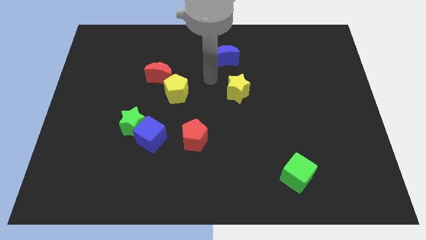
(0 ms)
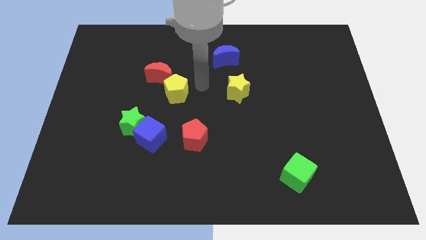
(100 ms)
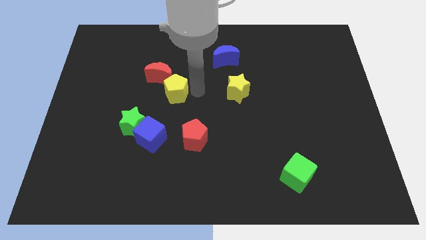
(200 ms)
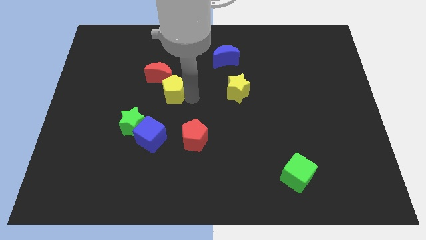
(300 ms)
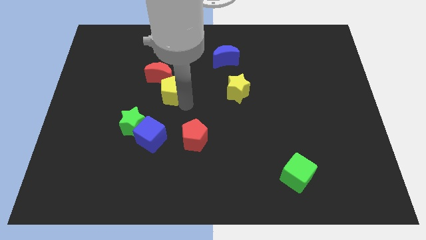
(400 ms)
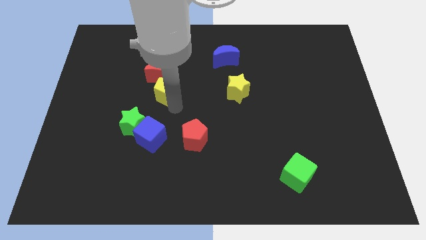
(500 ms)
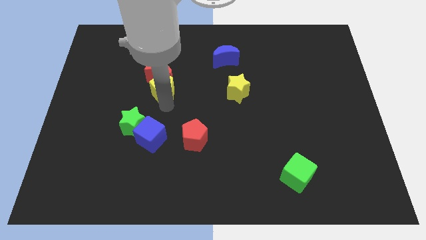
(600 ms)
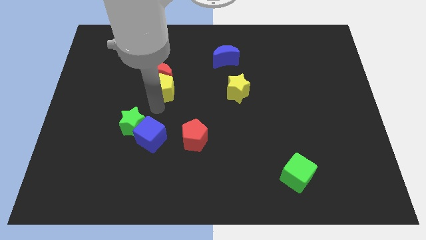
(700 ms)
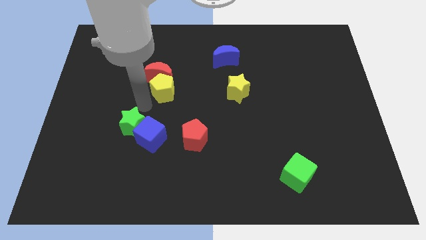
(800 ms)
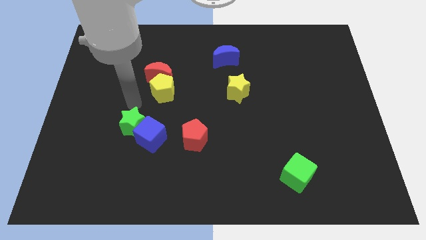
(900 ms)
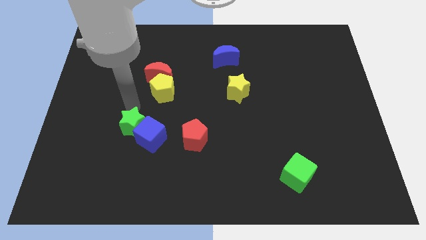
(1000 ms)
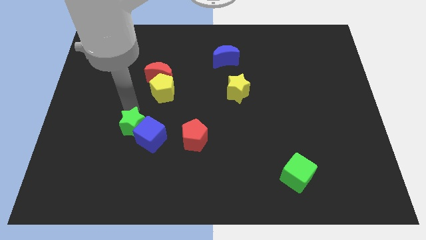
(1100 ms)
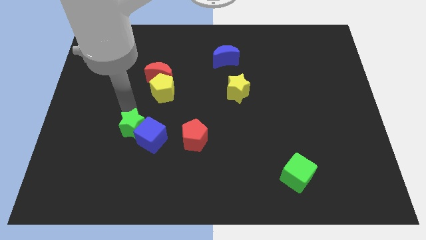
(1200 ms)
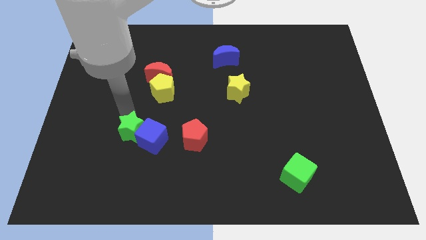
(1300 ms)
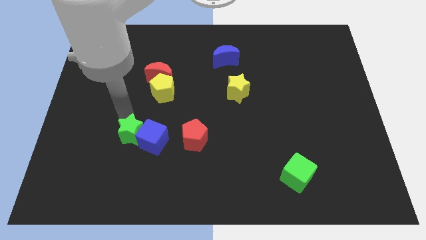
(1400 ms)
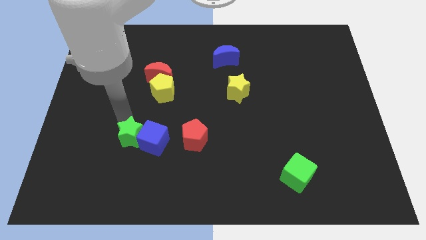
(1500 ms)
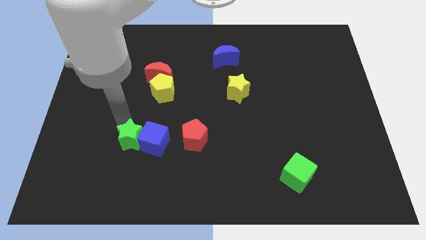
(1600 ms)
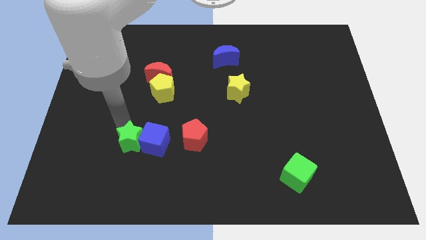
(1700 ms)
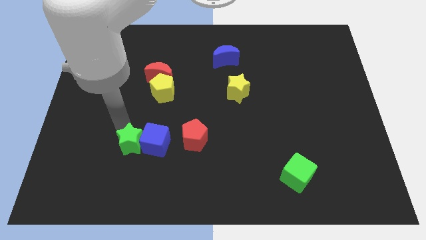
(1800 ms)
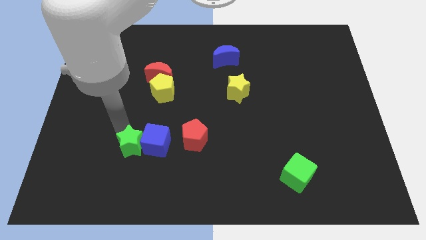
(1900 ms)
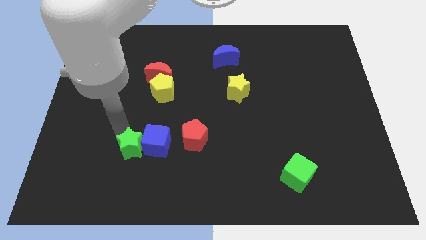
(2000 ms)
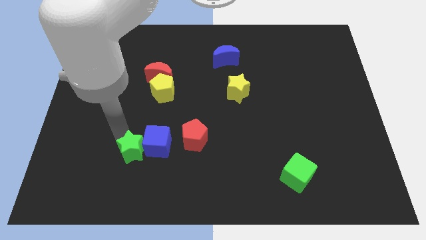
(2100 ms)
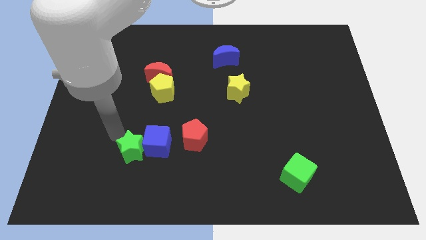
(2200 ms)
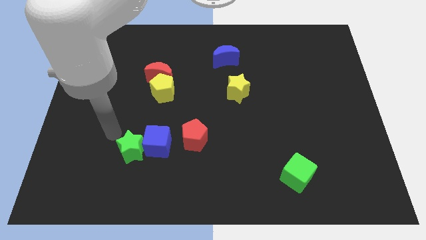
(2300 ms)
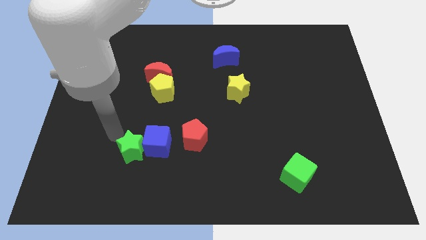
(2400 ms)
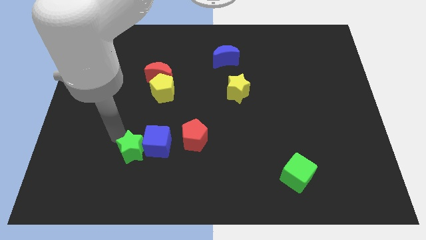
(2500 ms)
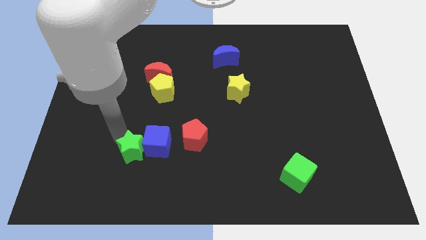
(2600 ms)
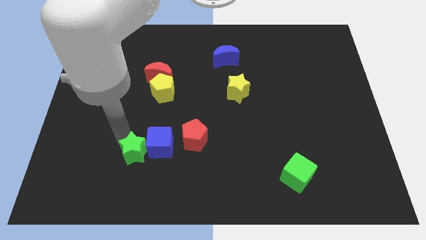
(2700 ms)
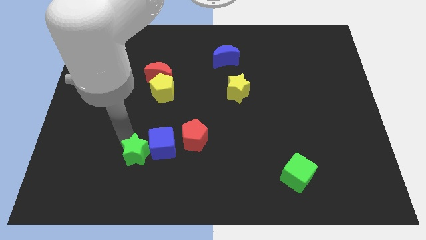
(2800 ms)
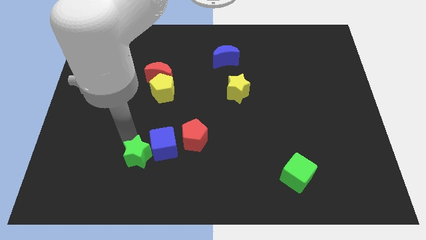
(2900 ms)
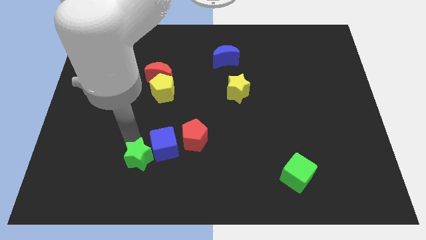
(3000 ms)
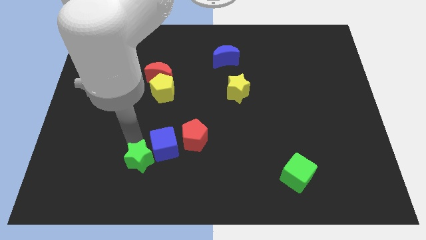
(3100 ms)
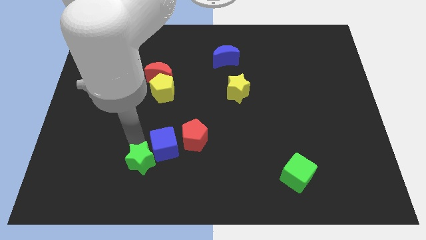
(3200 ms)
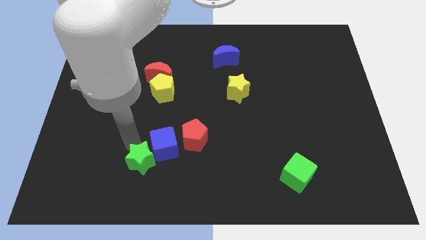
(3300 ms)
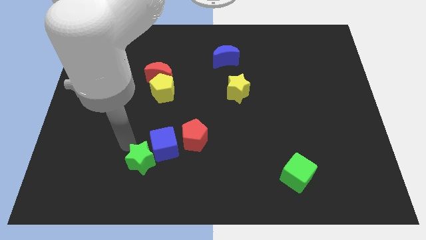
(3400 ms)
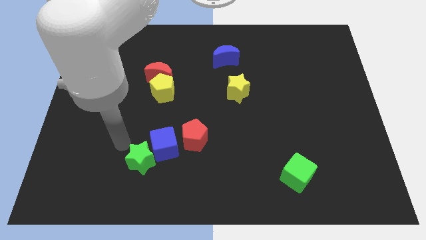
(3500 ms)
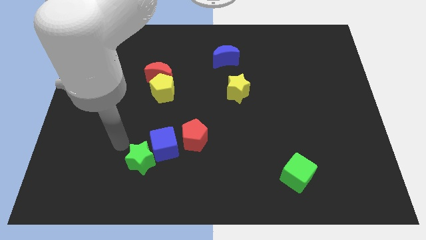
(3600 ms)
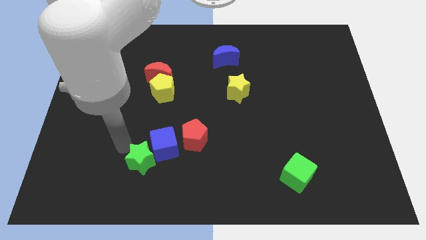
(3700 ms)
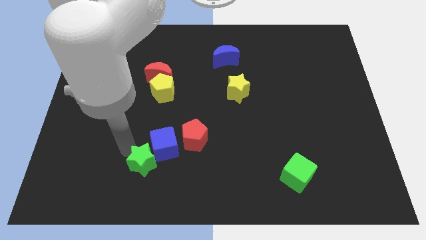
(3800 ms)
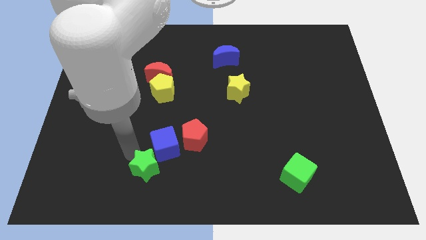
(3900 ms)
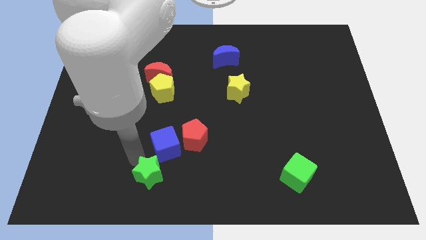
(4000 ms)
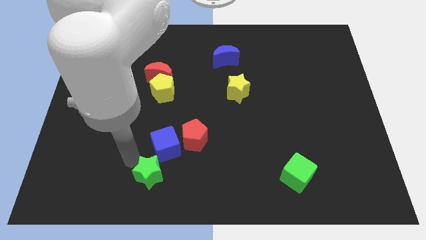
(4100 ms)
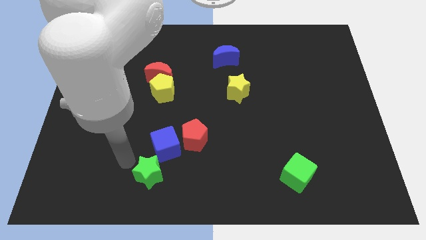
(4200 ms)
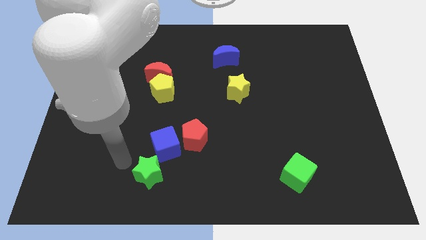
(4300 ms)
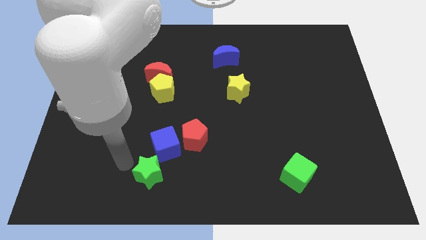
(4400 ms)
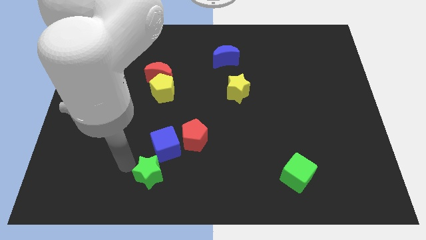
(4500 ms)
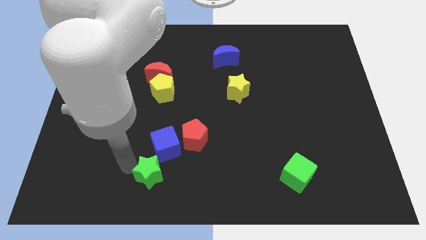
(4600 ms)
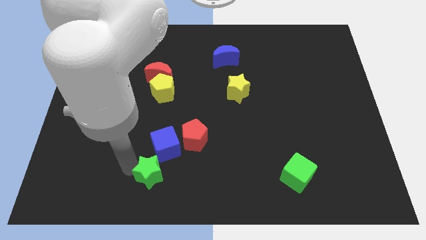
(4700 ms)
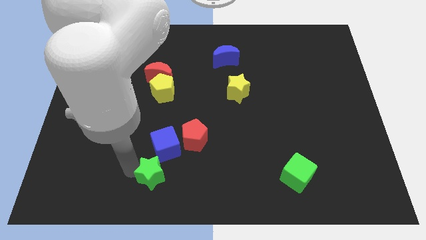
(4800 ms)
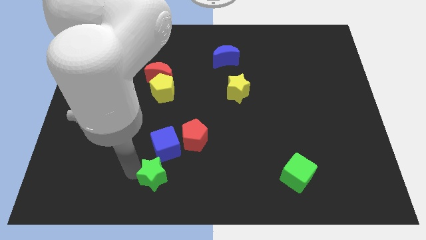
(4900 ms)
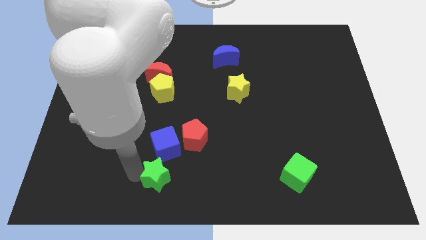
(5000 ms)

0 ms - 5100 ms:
move the green star to the bottom

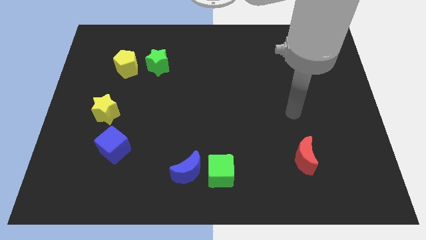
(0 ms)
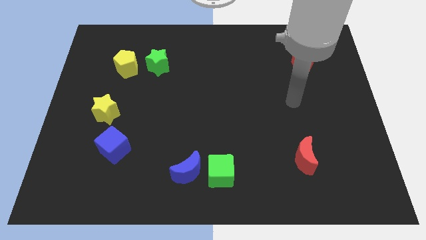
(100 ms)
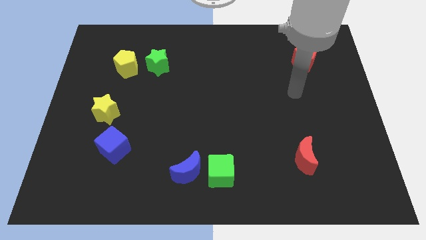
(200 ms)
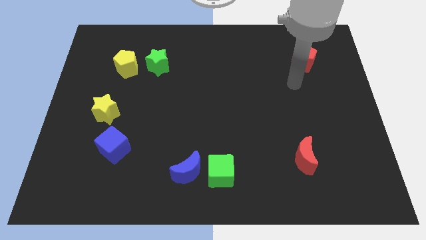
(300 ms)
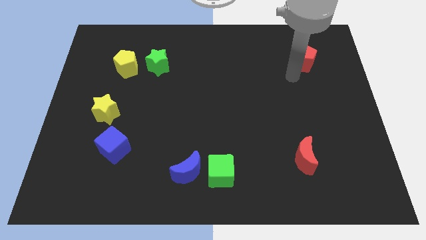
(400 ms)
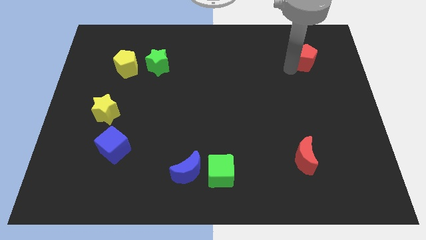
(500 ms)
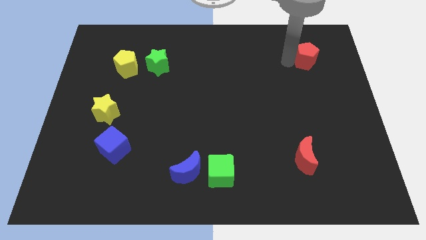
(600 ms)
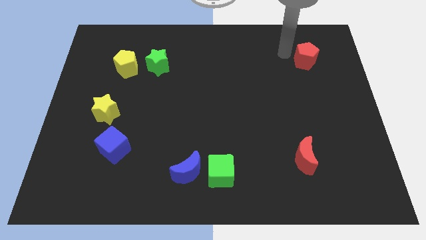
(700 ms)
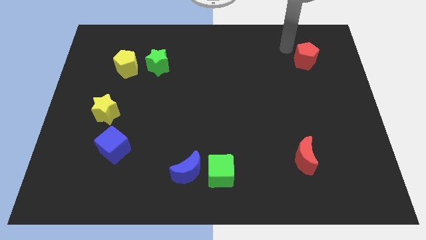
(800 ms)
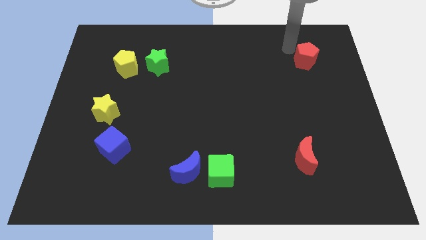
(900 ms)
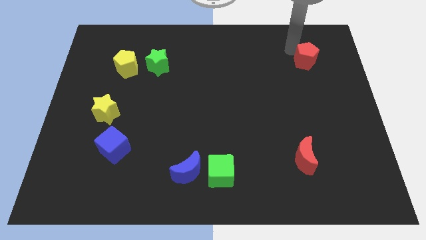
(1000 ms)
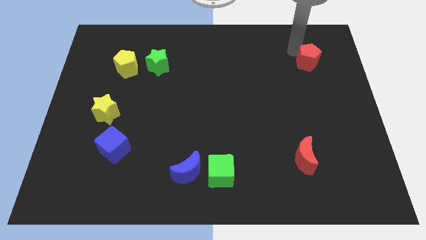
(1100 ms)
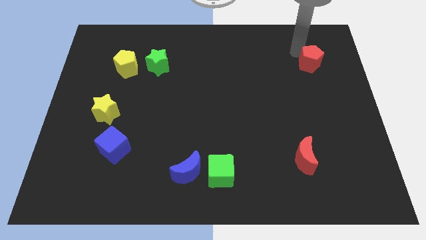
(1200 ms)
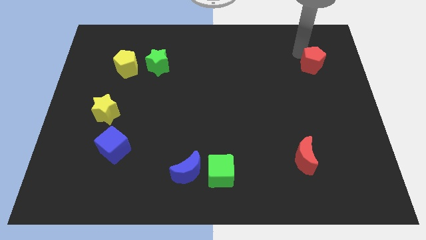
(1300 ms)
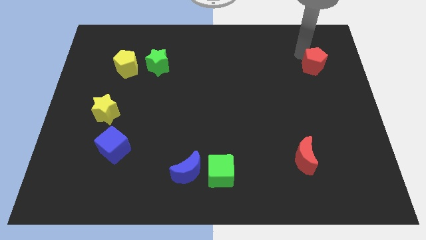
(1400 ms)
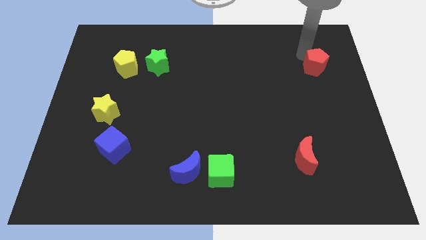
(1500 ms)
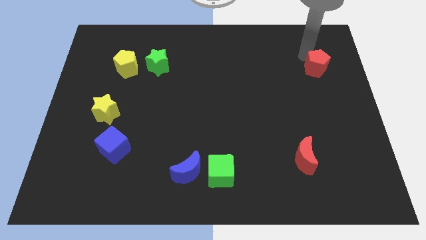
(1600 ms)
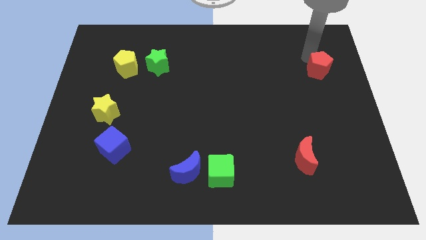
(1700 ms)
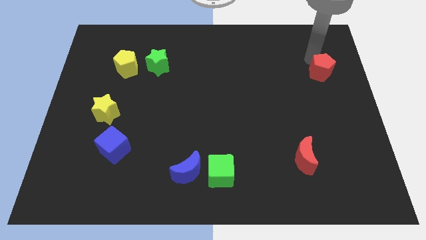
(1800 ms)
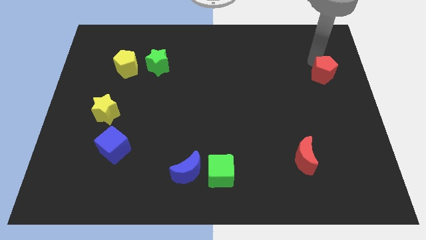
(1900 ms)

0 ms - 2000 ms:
slide the red pentagon to the center right
